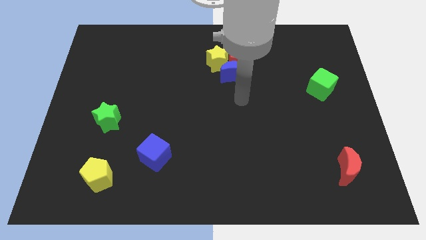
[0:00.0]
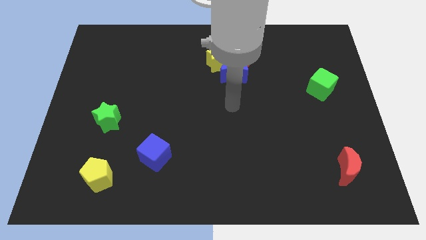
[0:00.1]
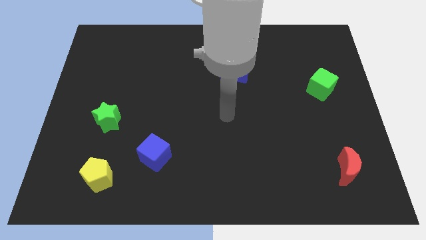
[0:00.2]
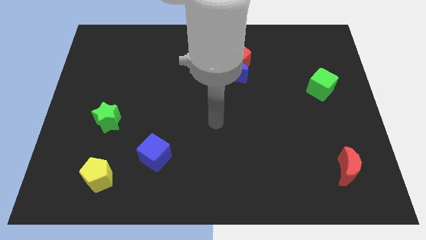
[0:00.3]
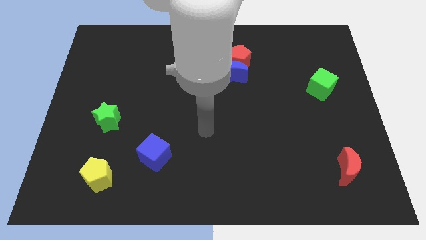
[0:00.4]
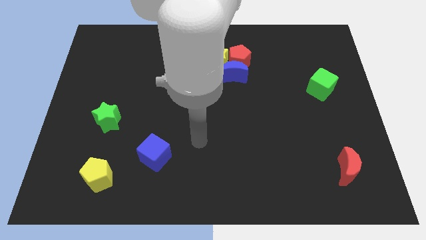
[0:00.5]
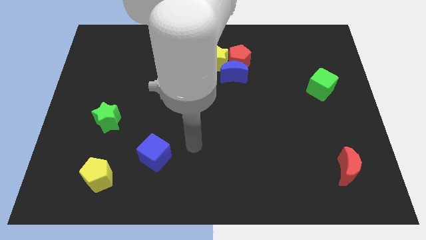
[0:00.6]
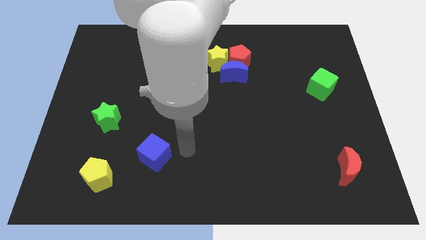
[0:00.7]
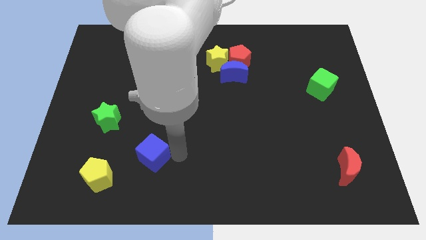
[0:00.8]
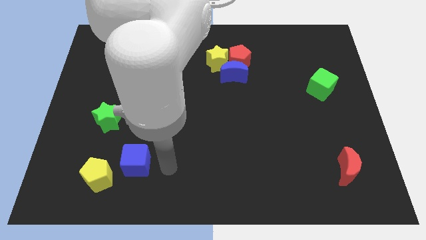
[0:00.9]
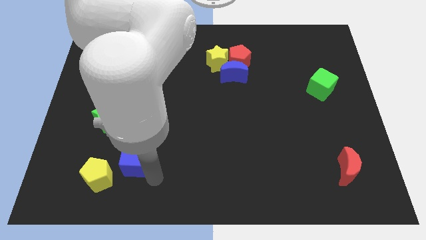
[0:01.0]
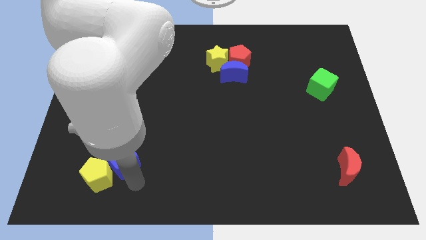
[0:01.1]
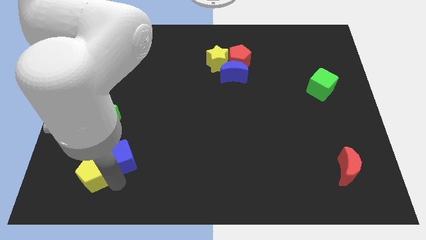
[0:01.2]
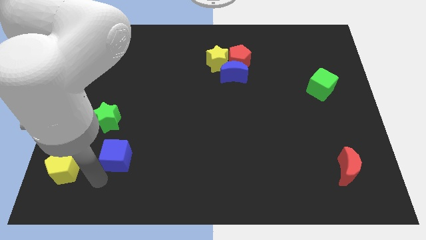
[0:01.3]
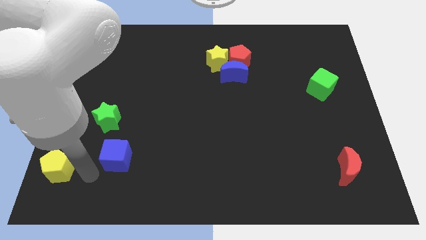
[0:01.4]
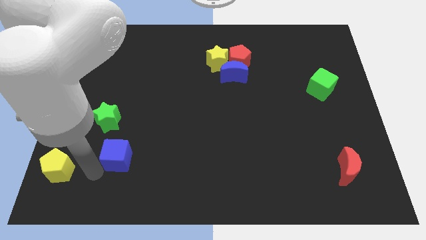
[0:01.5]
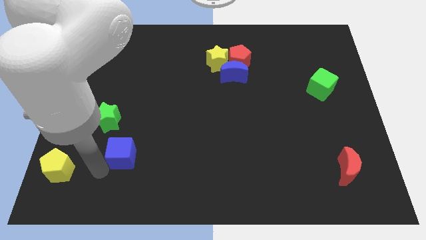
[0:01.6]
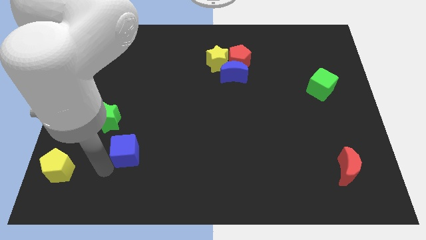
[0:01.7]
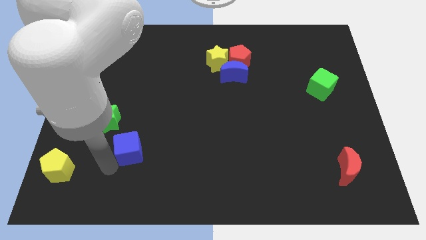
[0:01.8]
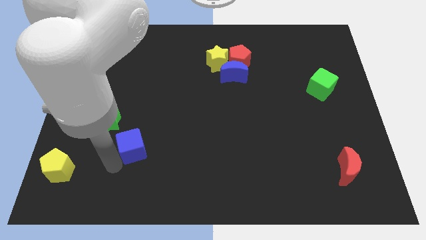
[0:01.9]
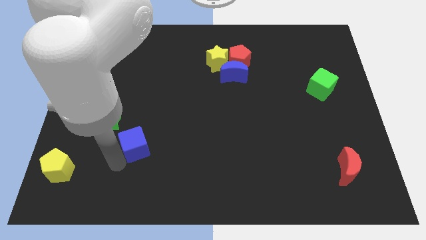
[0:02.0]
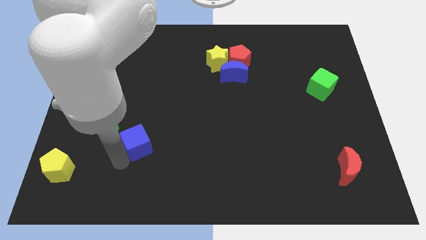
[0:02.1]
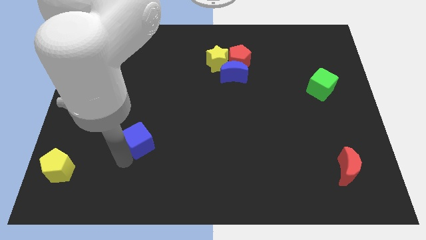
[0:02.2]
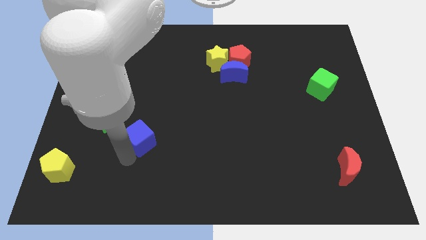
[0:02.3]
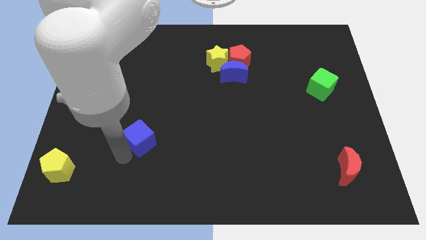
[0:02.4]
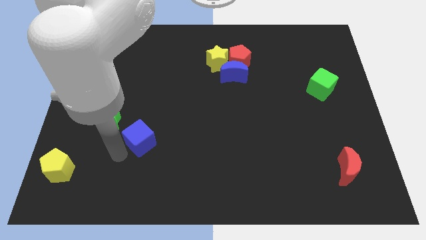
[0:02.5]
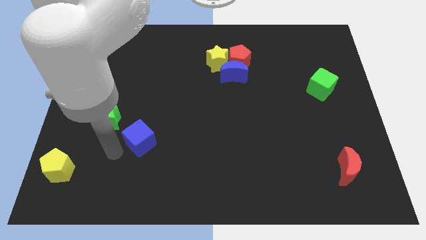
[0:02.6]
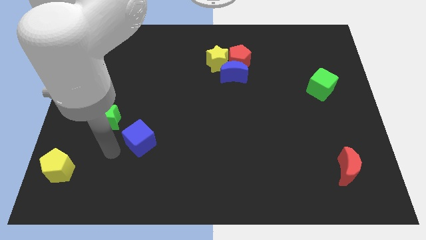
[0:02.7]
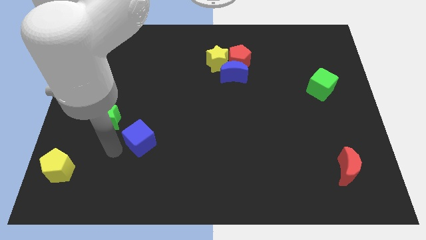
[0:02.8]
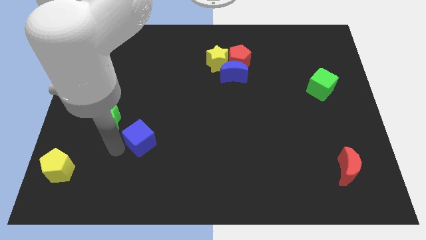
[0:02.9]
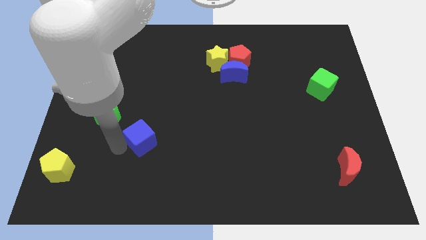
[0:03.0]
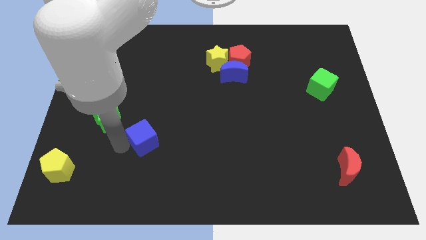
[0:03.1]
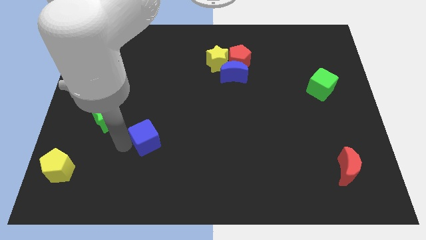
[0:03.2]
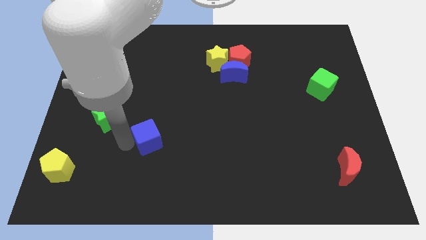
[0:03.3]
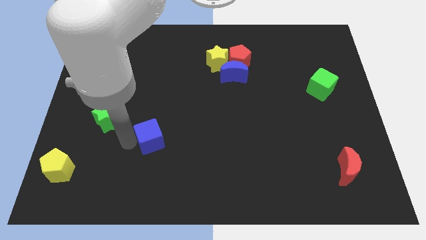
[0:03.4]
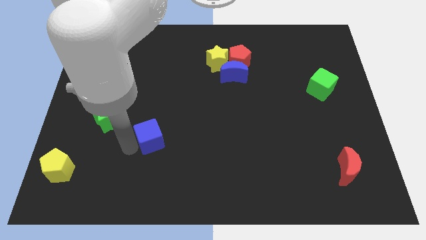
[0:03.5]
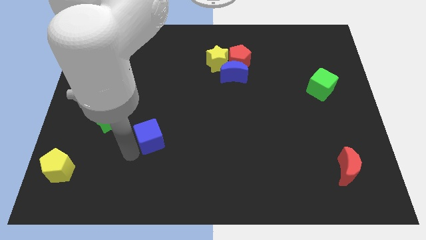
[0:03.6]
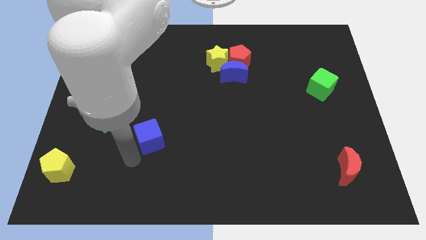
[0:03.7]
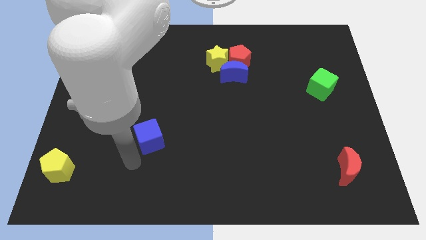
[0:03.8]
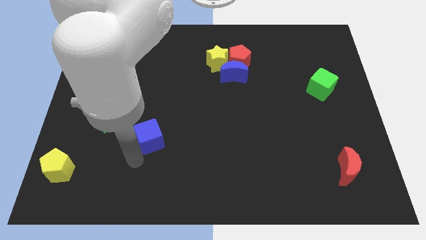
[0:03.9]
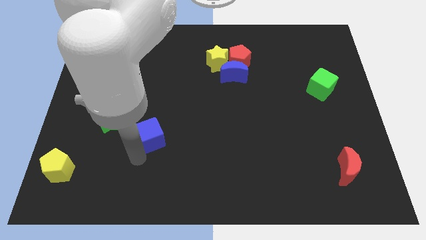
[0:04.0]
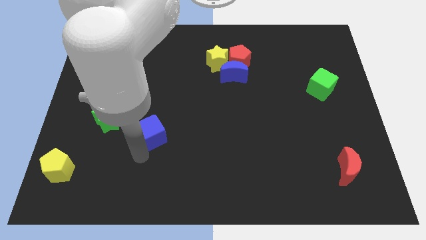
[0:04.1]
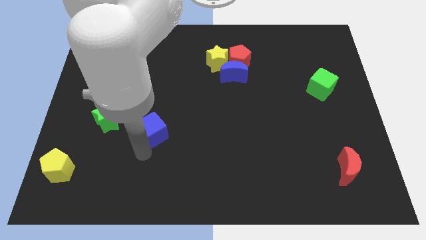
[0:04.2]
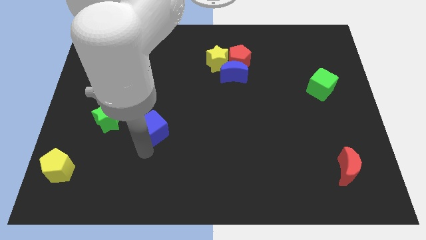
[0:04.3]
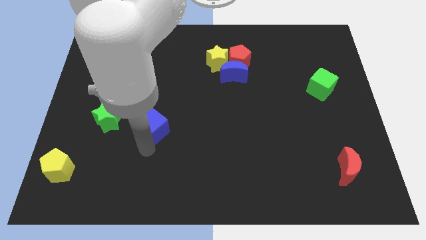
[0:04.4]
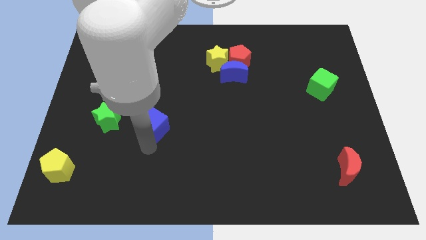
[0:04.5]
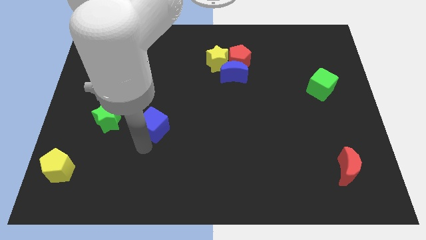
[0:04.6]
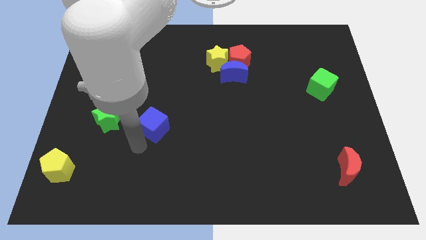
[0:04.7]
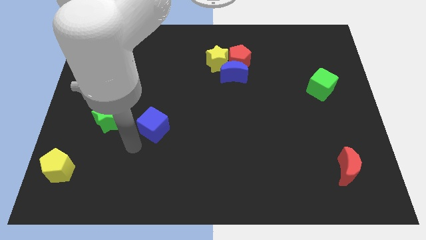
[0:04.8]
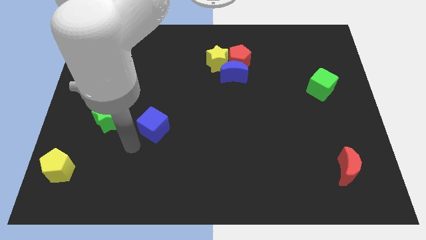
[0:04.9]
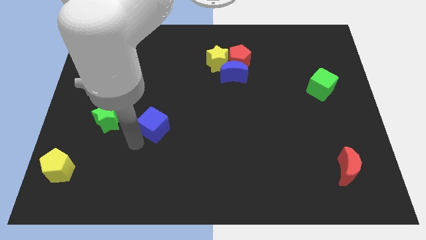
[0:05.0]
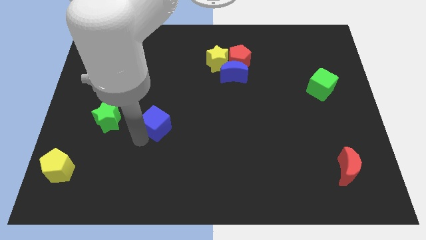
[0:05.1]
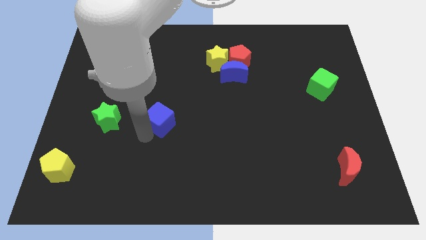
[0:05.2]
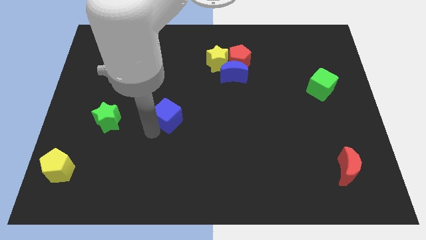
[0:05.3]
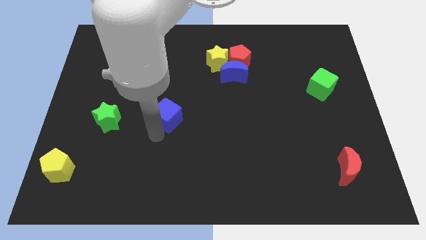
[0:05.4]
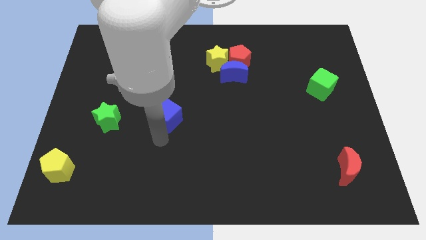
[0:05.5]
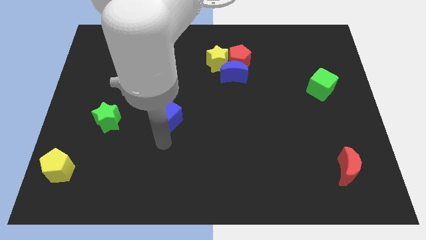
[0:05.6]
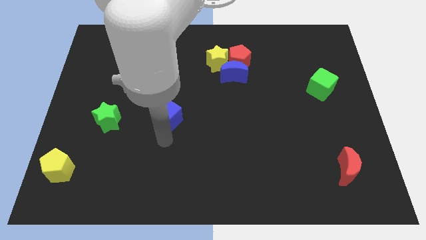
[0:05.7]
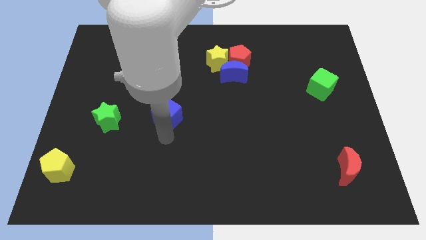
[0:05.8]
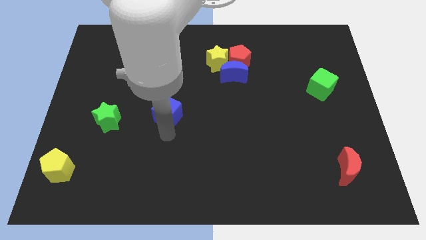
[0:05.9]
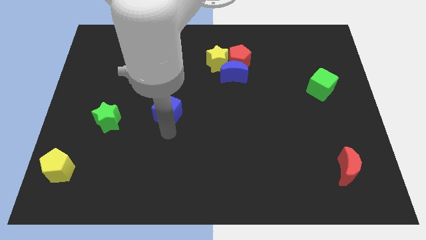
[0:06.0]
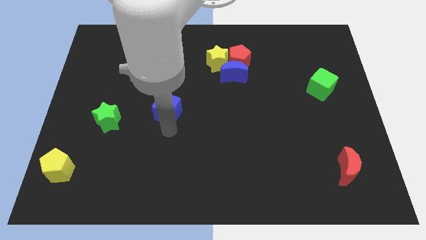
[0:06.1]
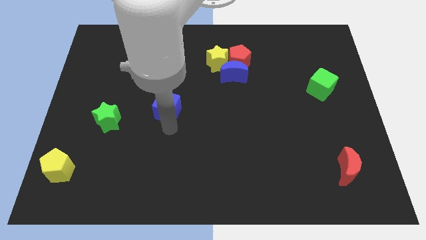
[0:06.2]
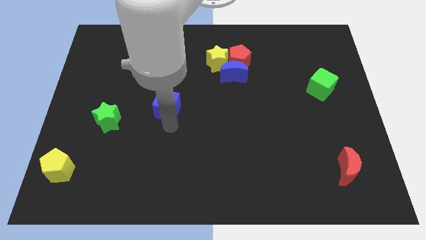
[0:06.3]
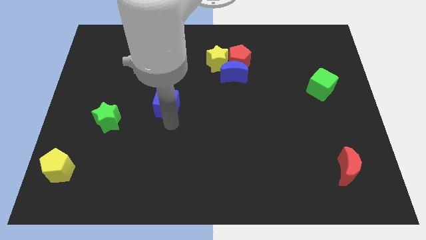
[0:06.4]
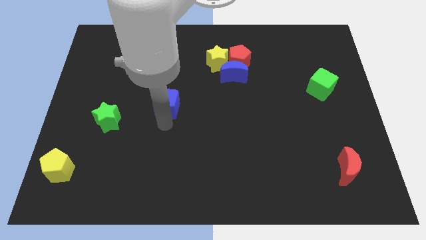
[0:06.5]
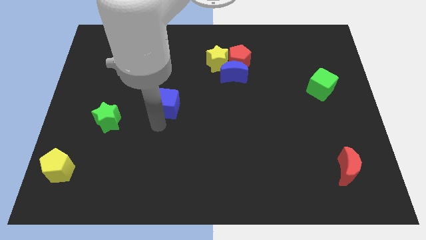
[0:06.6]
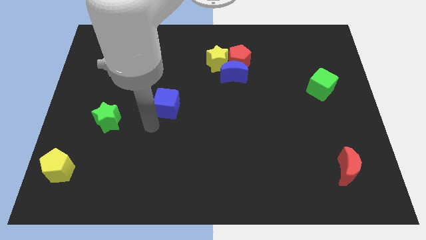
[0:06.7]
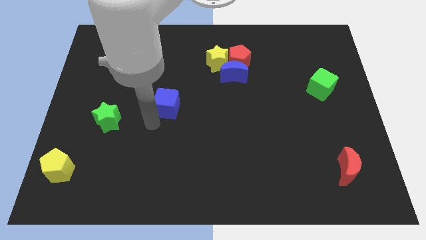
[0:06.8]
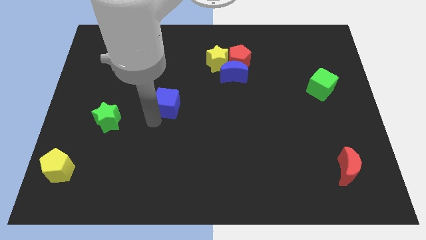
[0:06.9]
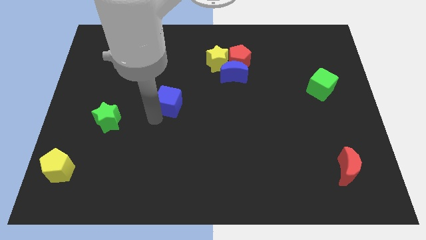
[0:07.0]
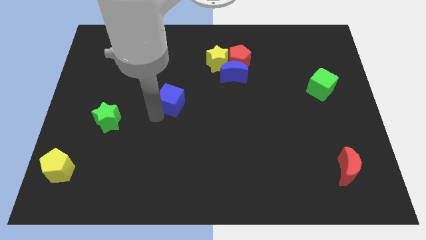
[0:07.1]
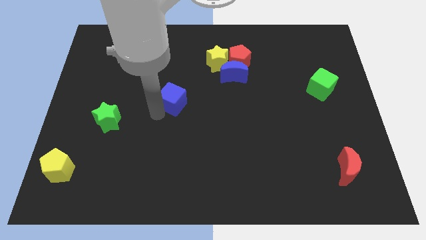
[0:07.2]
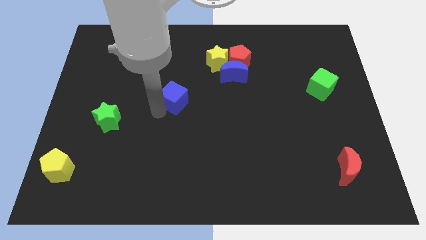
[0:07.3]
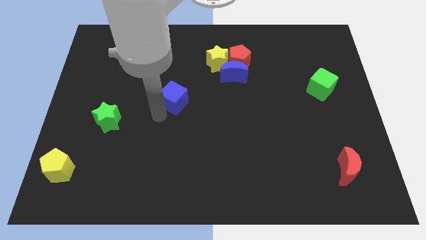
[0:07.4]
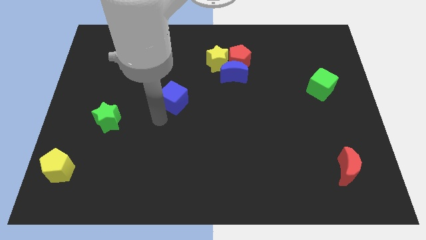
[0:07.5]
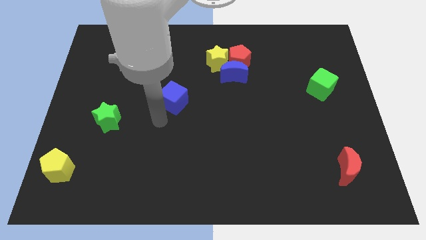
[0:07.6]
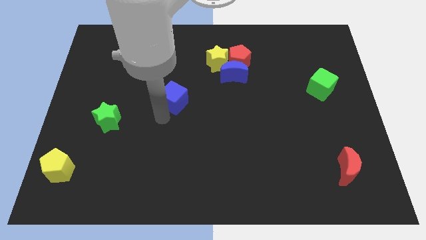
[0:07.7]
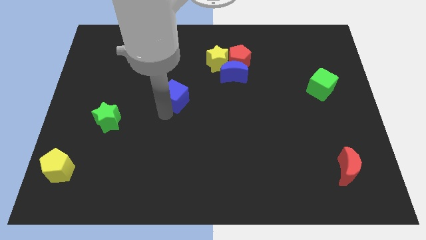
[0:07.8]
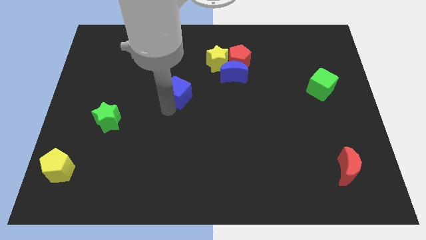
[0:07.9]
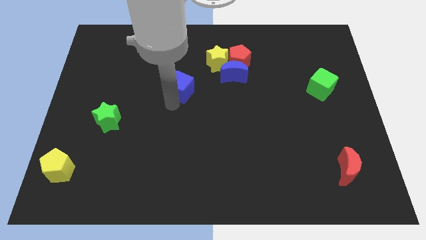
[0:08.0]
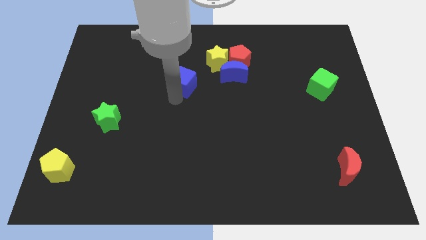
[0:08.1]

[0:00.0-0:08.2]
move the blue cube to the left of the blue moon

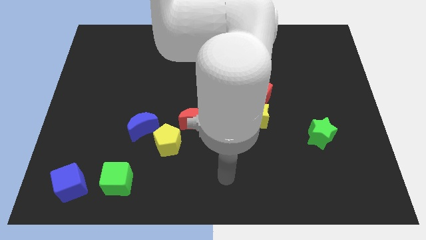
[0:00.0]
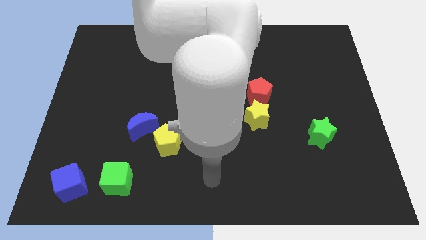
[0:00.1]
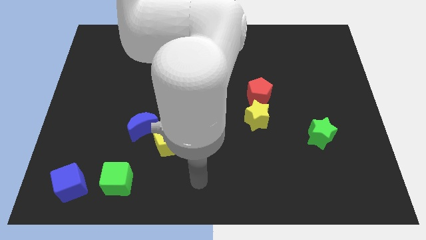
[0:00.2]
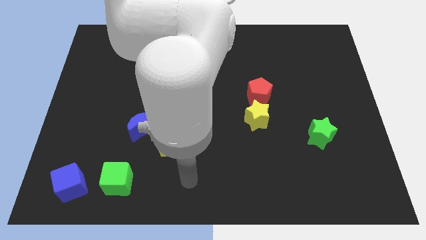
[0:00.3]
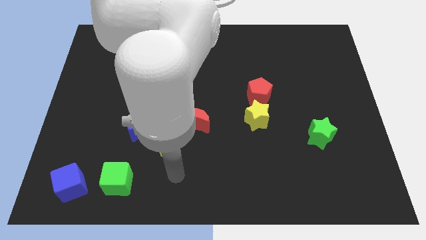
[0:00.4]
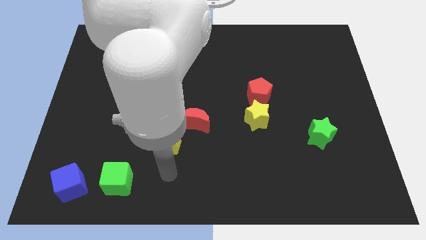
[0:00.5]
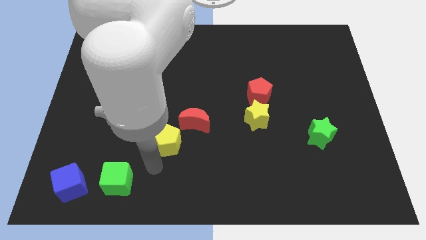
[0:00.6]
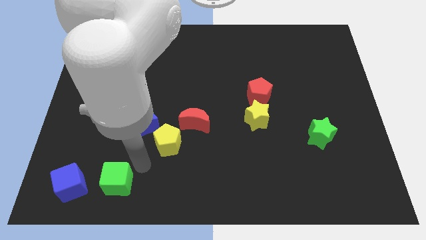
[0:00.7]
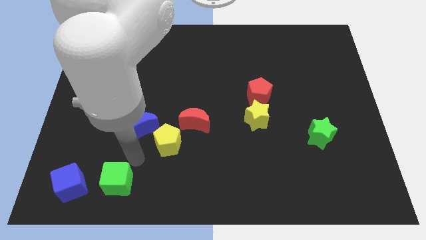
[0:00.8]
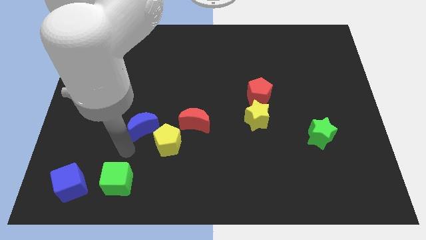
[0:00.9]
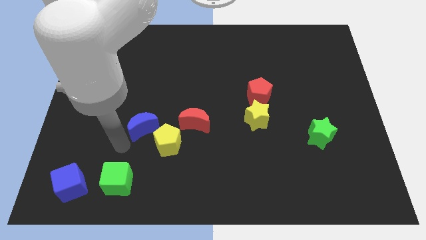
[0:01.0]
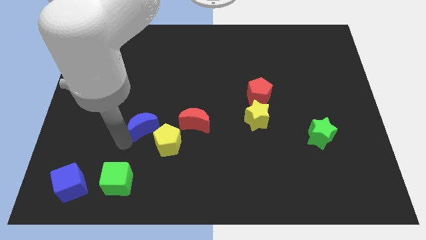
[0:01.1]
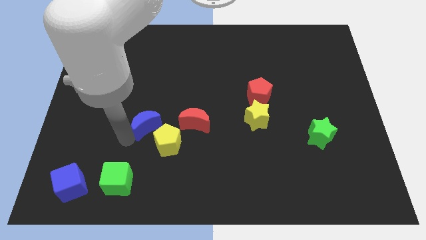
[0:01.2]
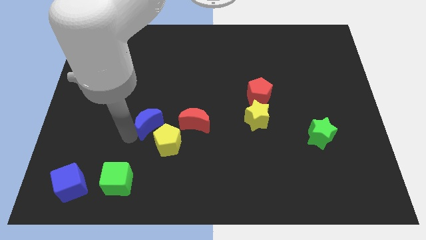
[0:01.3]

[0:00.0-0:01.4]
slide the blue moon to the top of the yellow pentagon
